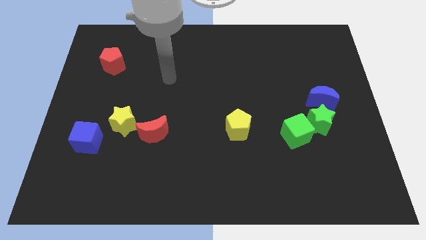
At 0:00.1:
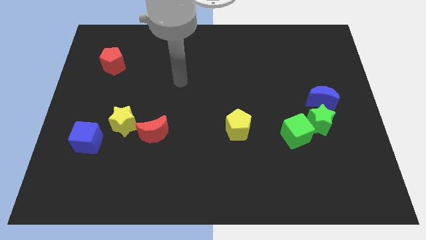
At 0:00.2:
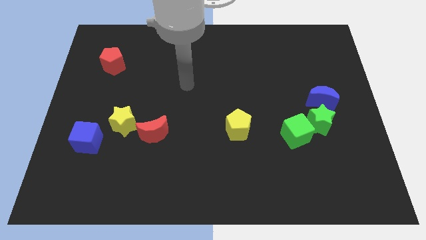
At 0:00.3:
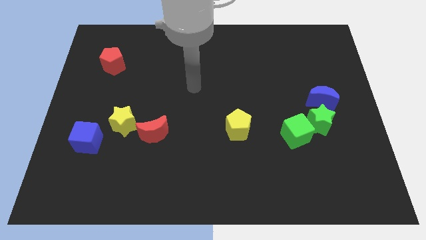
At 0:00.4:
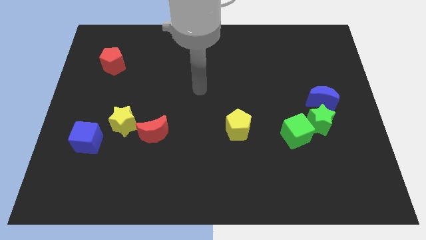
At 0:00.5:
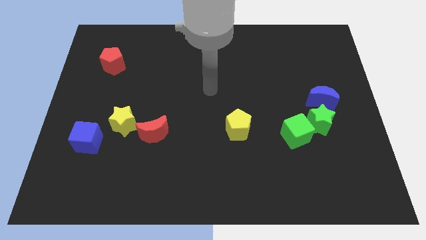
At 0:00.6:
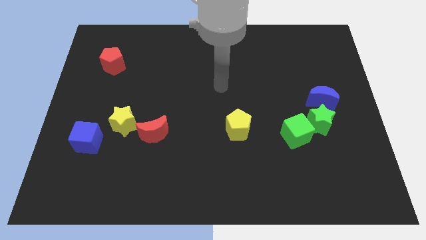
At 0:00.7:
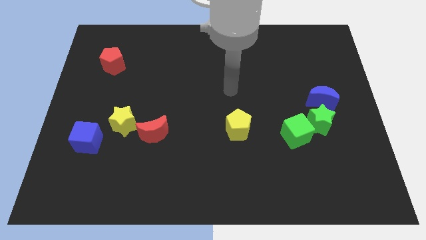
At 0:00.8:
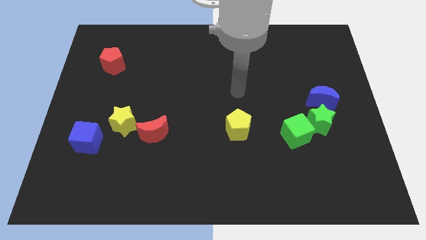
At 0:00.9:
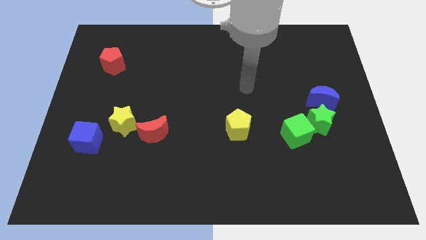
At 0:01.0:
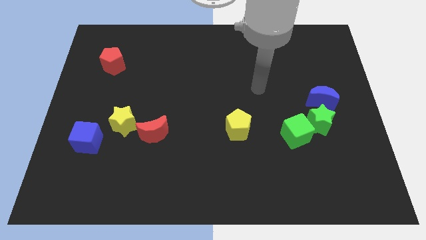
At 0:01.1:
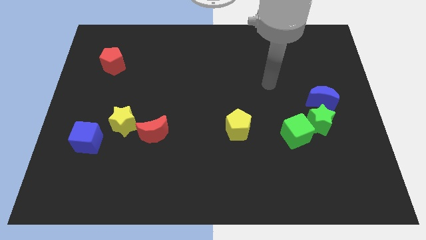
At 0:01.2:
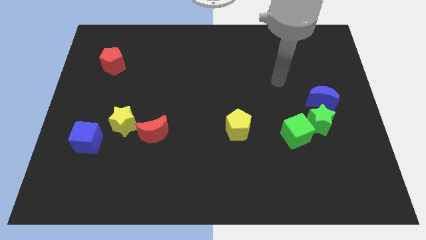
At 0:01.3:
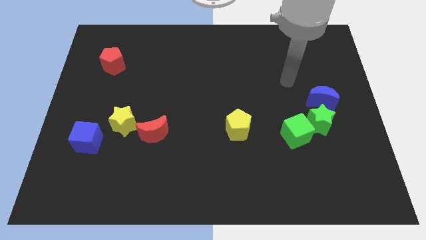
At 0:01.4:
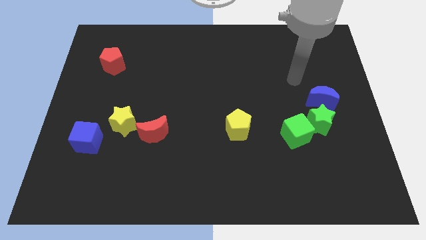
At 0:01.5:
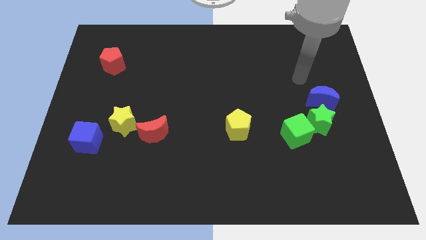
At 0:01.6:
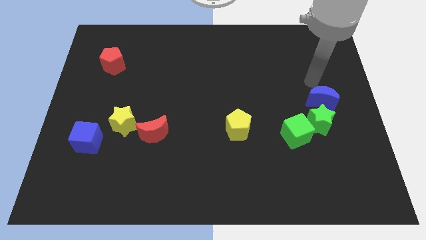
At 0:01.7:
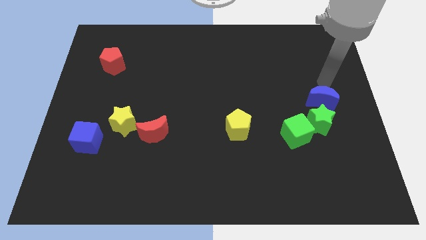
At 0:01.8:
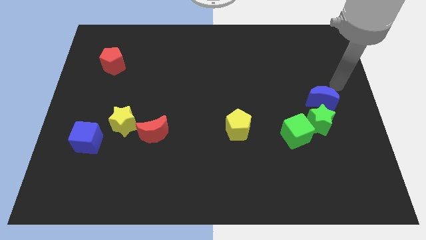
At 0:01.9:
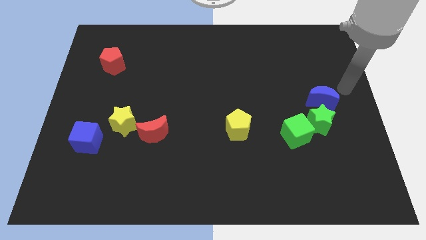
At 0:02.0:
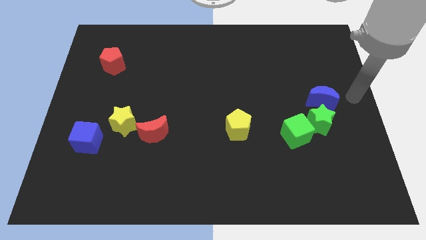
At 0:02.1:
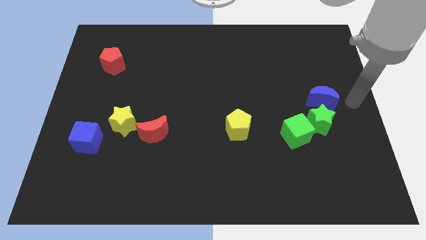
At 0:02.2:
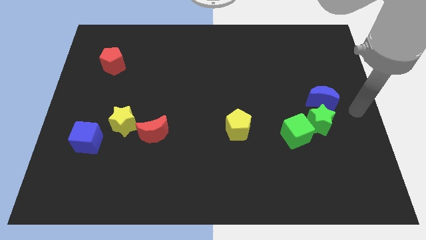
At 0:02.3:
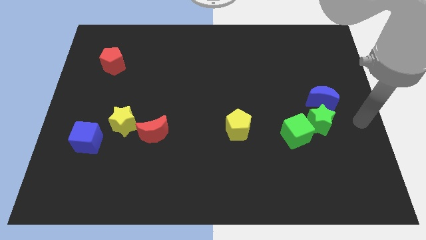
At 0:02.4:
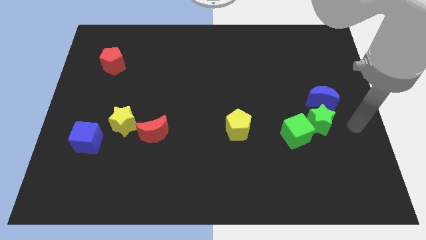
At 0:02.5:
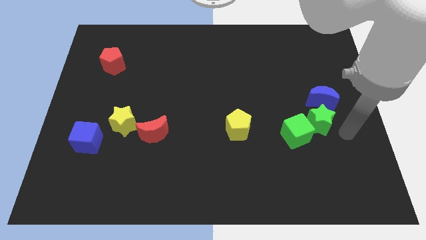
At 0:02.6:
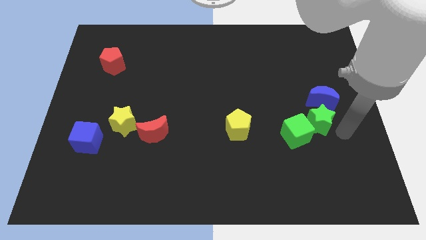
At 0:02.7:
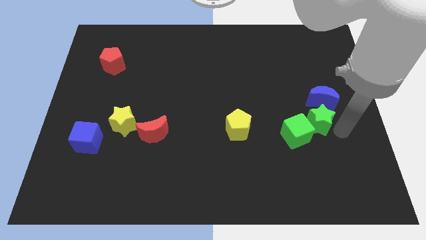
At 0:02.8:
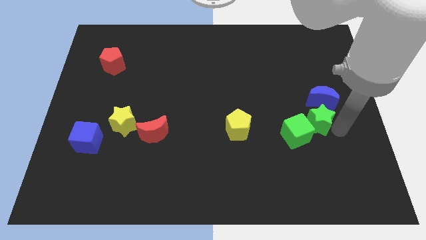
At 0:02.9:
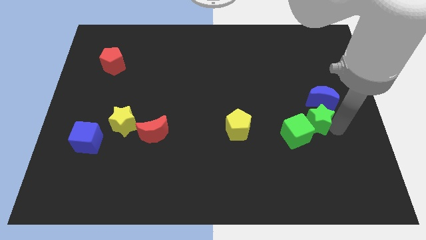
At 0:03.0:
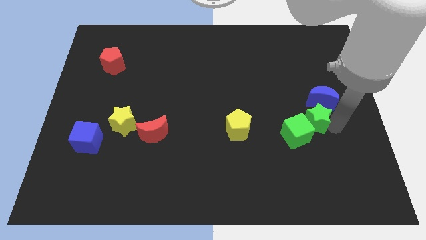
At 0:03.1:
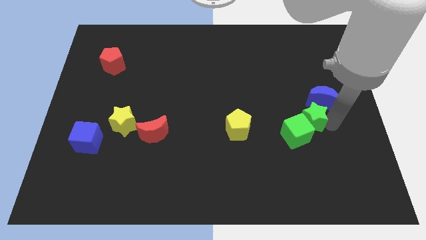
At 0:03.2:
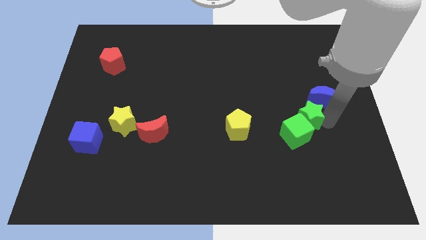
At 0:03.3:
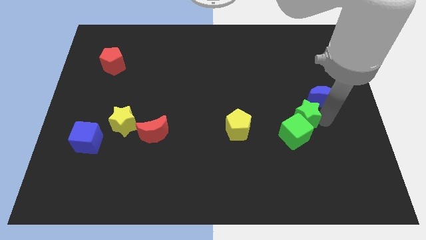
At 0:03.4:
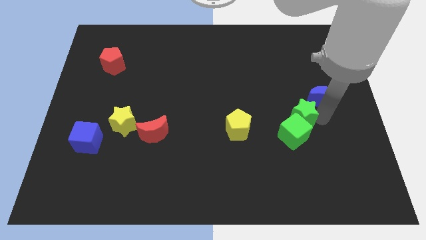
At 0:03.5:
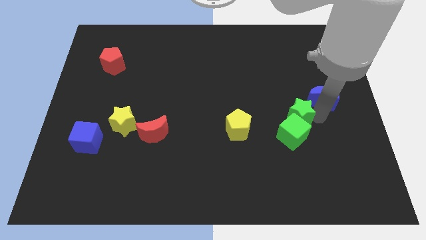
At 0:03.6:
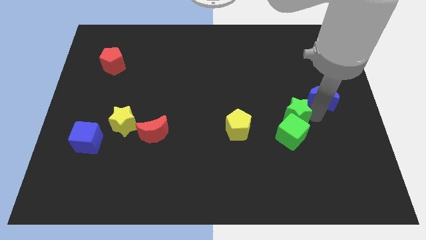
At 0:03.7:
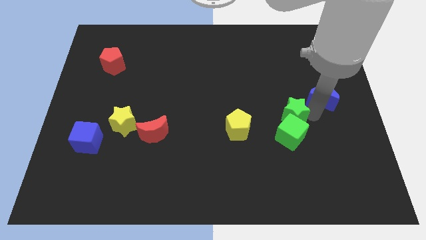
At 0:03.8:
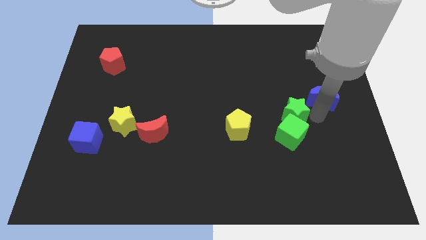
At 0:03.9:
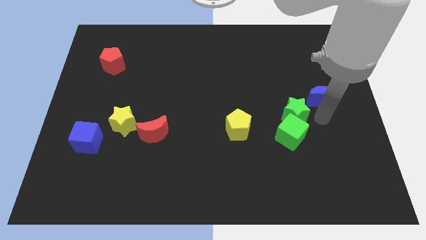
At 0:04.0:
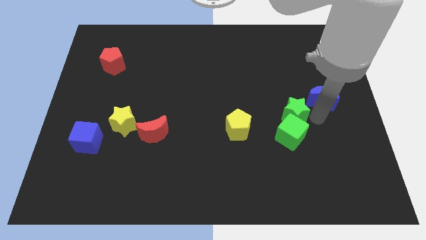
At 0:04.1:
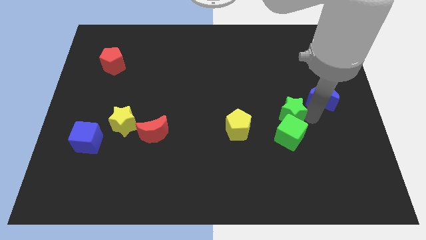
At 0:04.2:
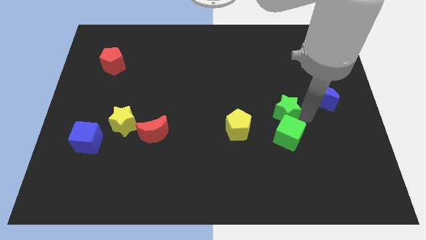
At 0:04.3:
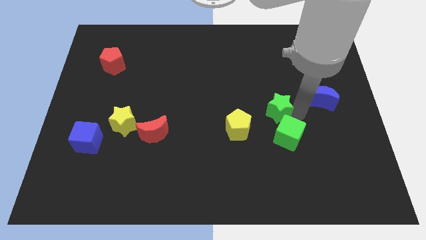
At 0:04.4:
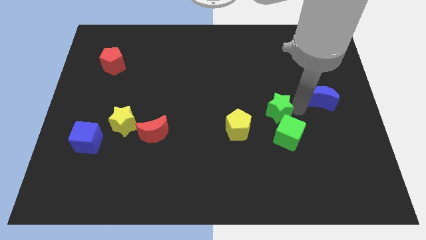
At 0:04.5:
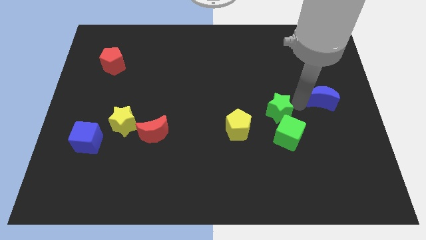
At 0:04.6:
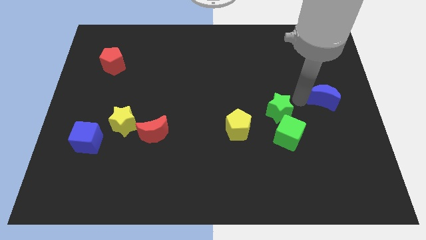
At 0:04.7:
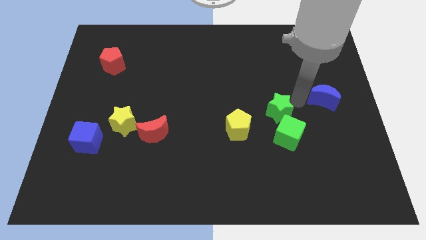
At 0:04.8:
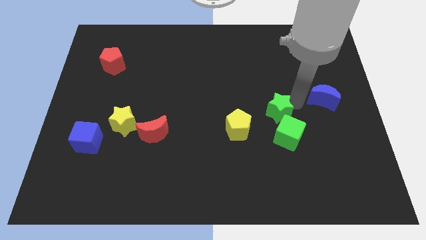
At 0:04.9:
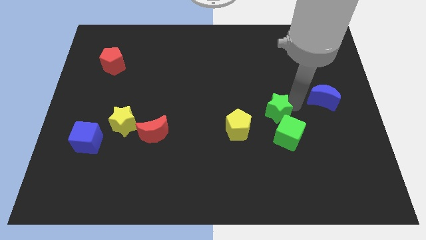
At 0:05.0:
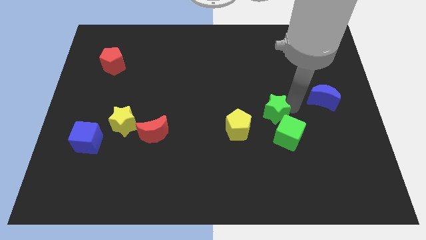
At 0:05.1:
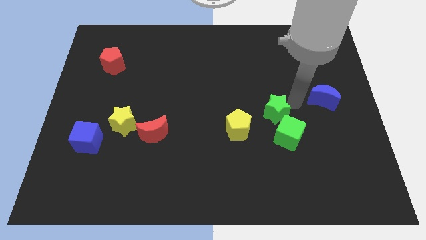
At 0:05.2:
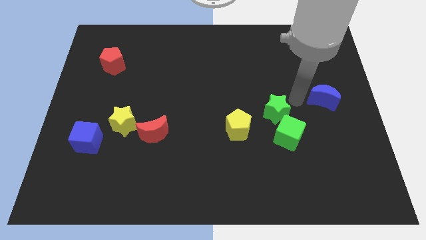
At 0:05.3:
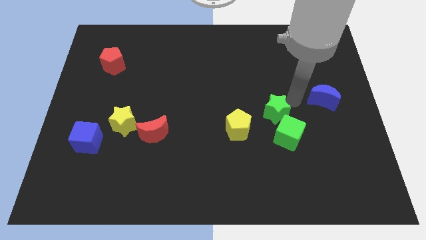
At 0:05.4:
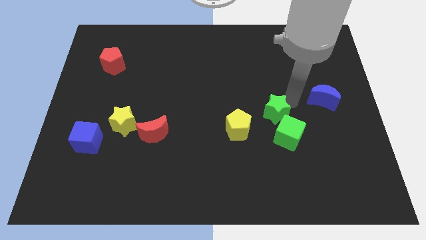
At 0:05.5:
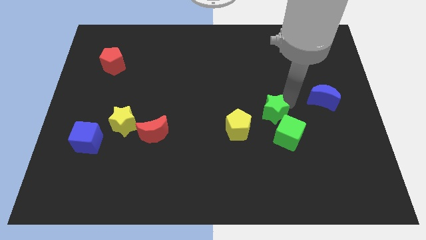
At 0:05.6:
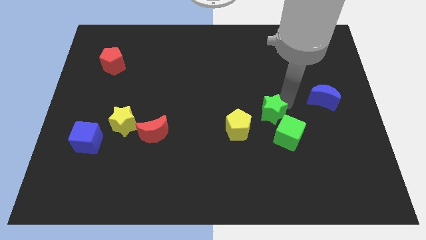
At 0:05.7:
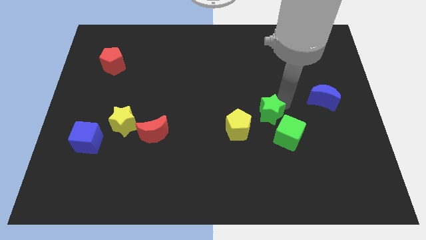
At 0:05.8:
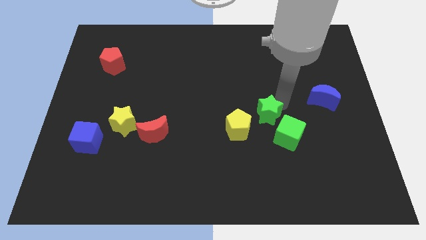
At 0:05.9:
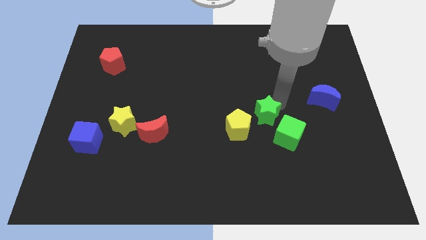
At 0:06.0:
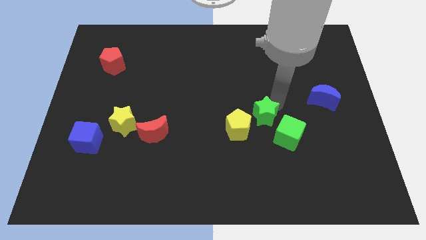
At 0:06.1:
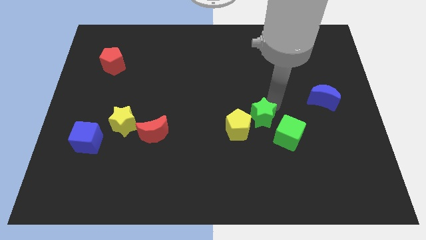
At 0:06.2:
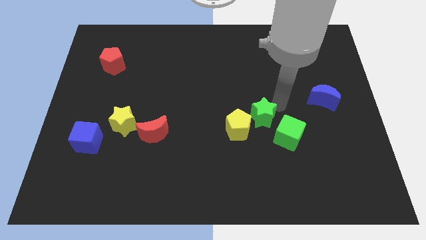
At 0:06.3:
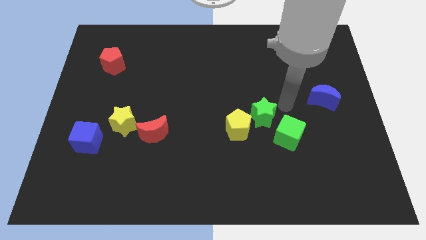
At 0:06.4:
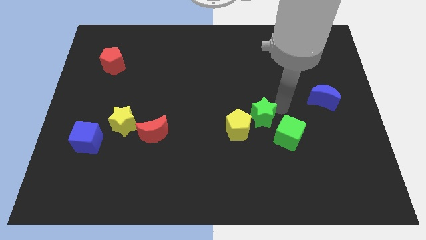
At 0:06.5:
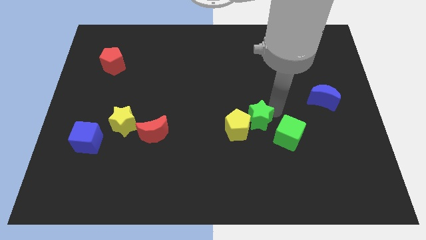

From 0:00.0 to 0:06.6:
push the green star next to the yellow pentagon
